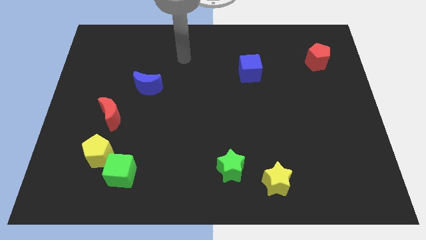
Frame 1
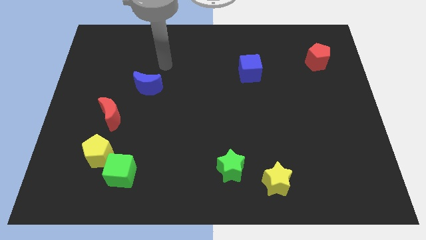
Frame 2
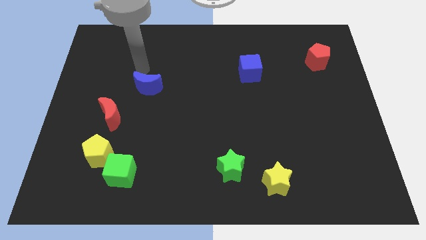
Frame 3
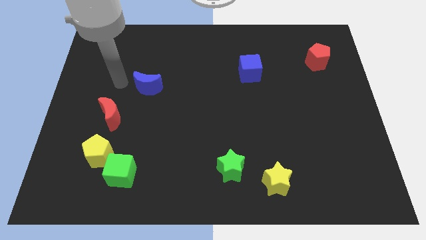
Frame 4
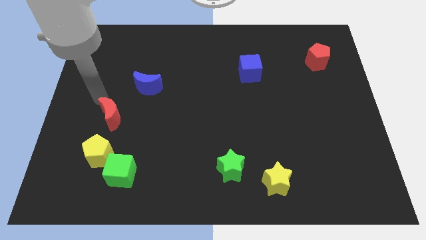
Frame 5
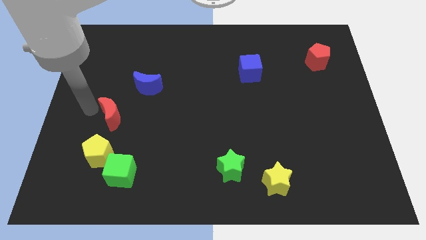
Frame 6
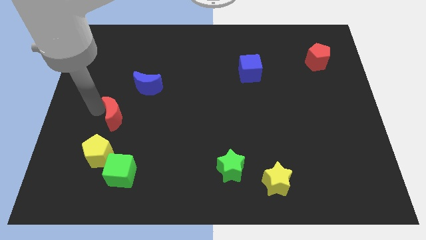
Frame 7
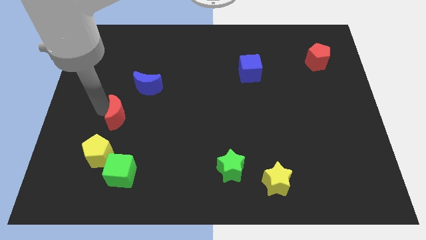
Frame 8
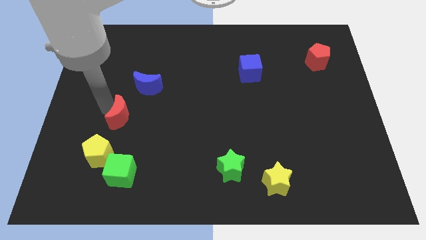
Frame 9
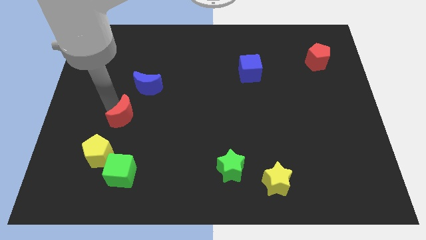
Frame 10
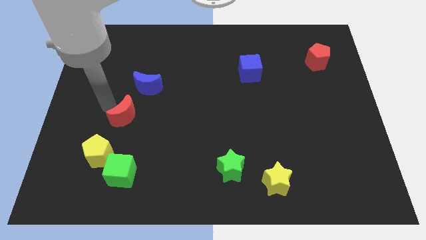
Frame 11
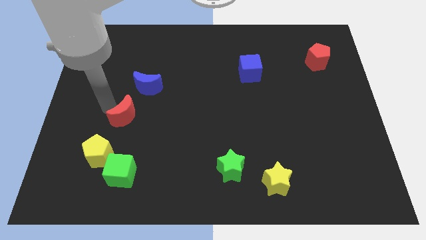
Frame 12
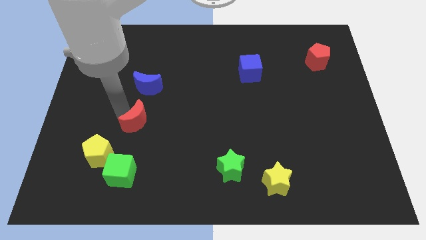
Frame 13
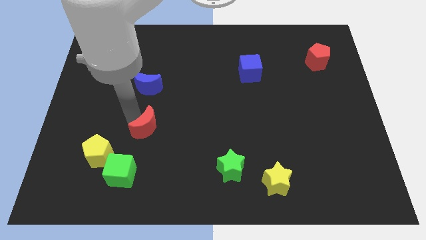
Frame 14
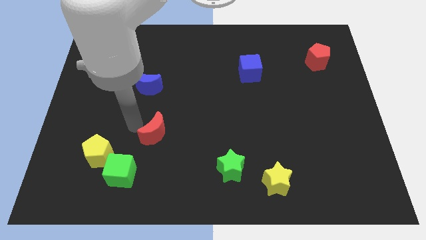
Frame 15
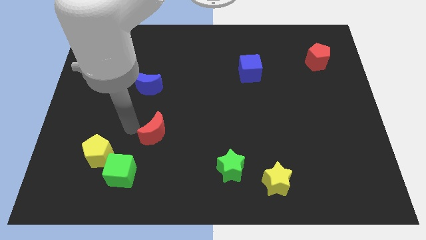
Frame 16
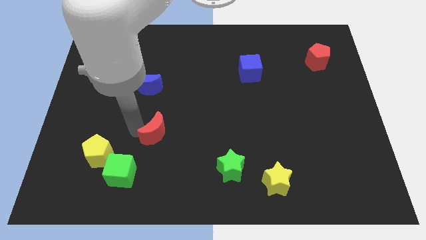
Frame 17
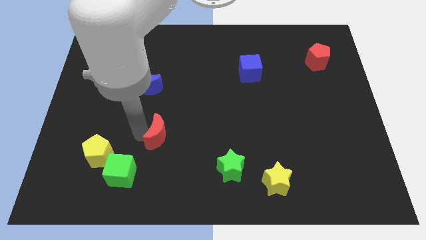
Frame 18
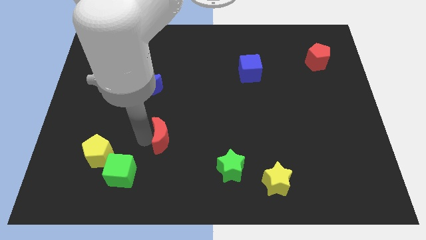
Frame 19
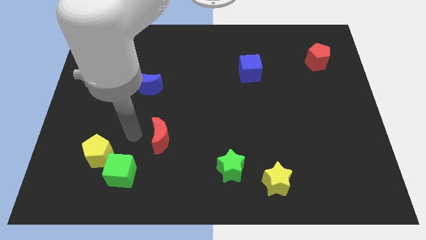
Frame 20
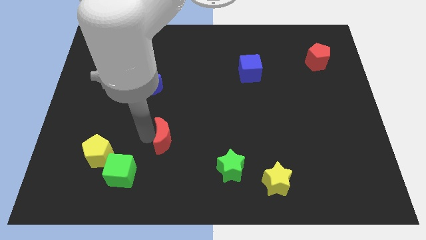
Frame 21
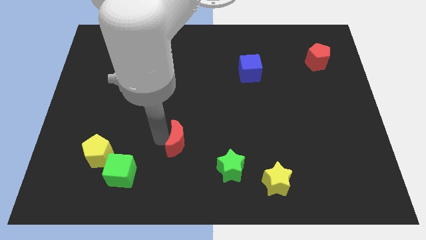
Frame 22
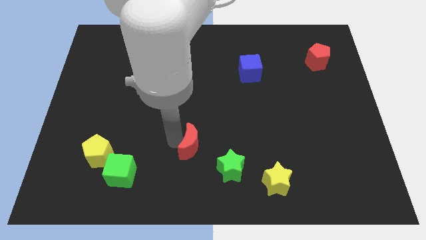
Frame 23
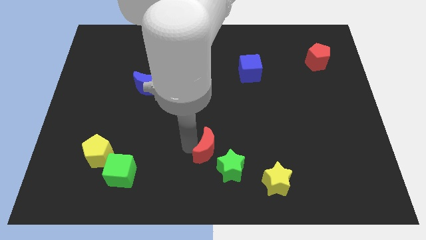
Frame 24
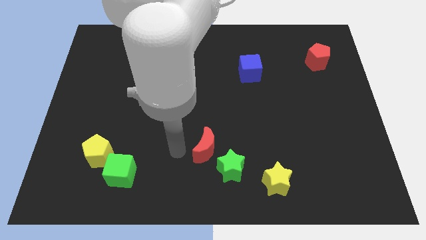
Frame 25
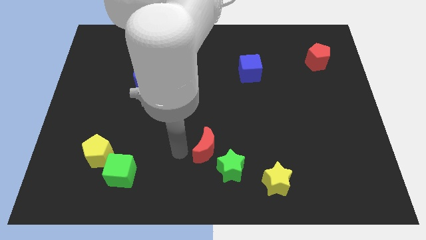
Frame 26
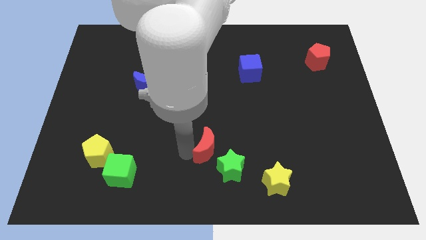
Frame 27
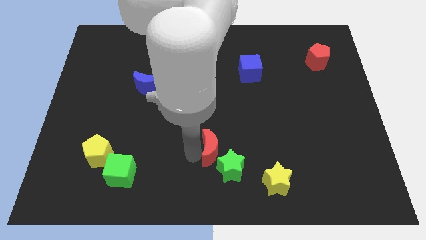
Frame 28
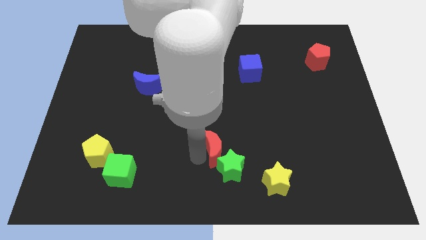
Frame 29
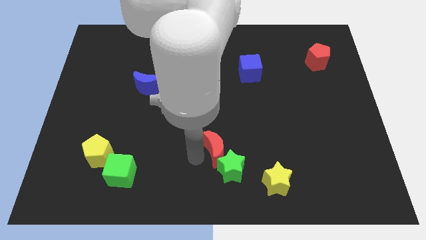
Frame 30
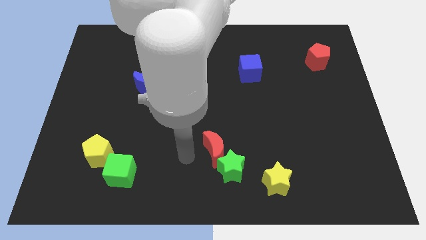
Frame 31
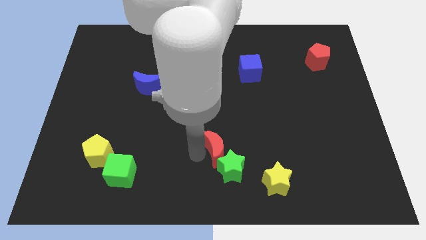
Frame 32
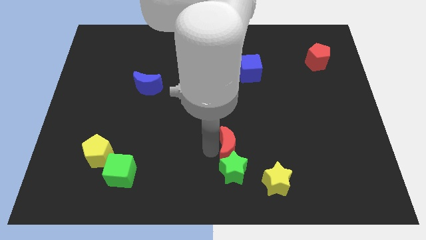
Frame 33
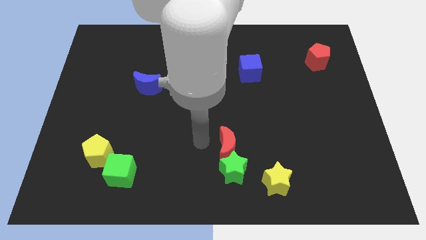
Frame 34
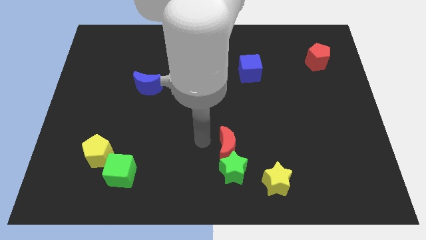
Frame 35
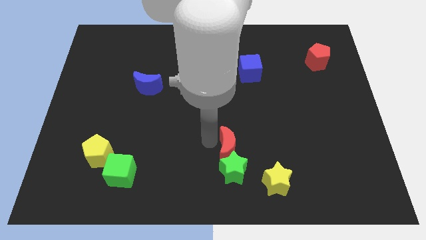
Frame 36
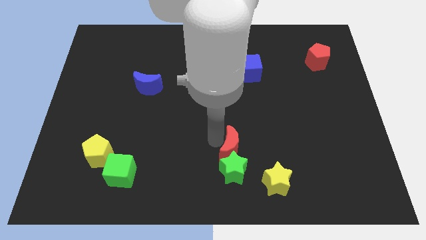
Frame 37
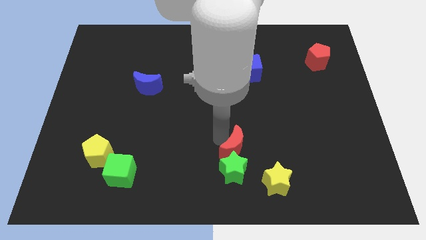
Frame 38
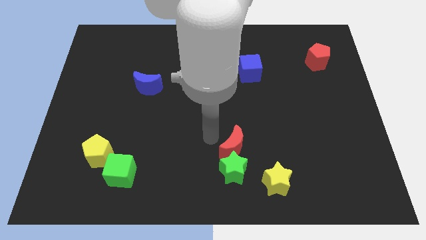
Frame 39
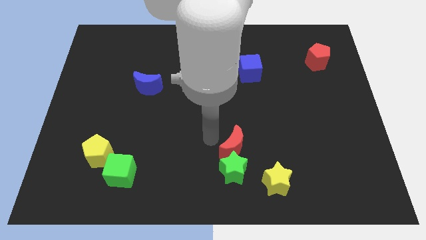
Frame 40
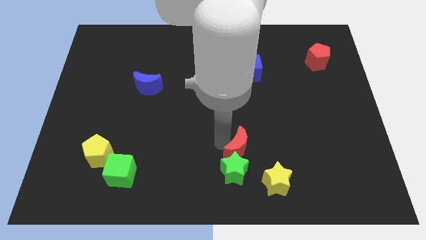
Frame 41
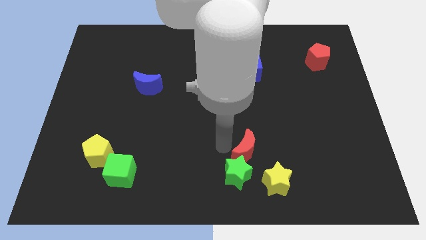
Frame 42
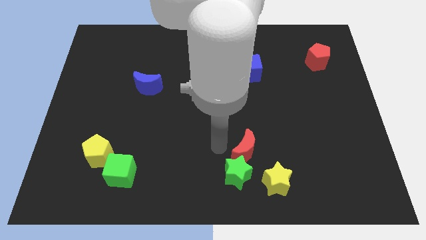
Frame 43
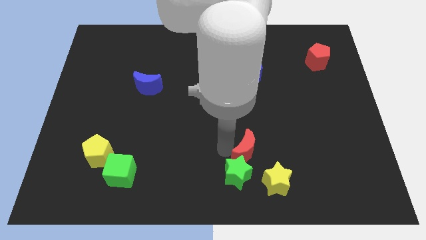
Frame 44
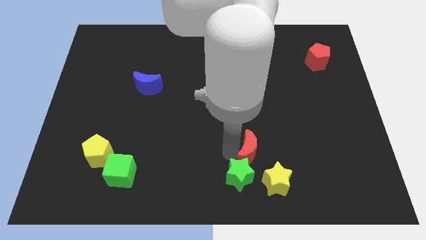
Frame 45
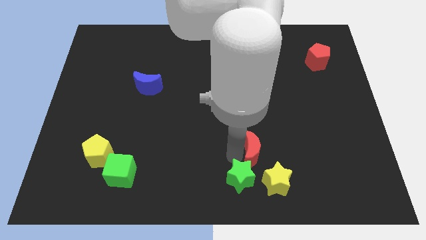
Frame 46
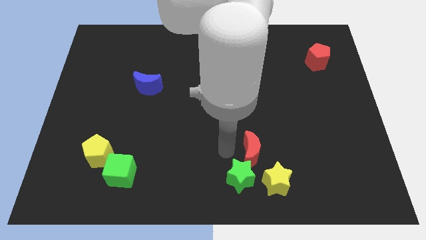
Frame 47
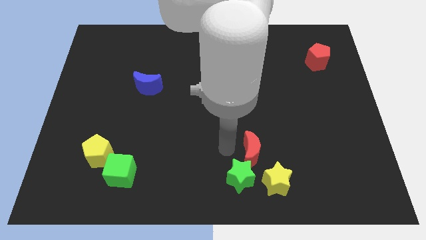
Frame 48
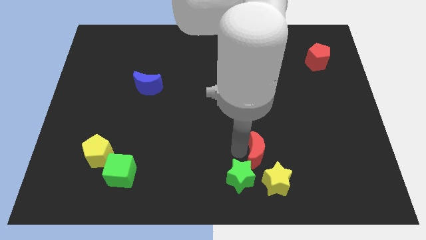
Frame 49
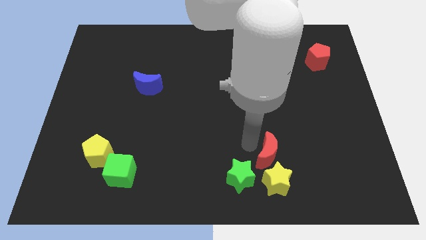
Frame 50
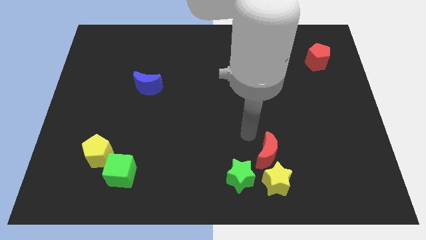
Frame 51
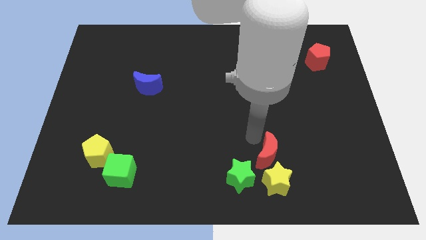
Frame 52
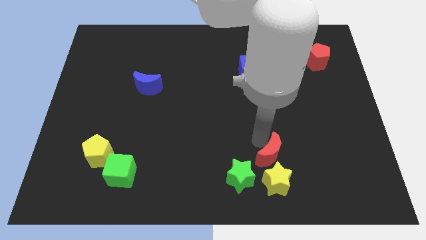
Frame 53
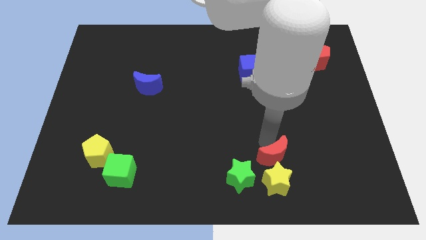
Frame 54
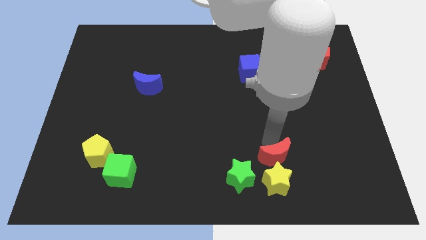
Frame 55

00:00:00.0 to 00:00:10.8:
put the red moon just right of the green star

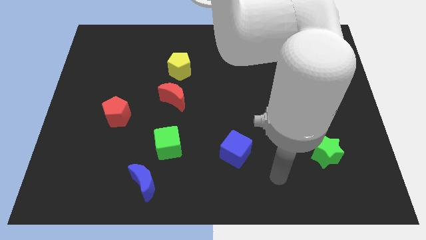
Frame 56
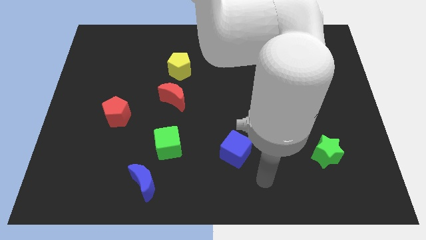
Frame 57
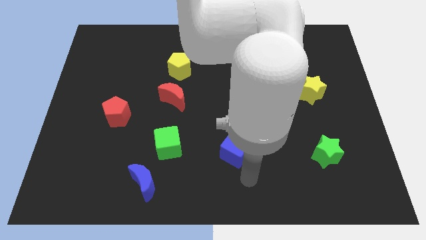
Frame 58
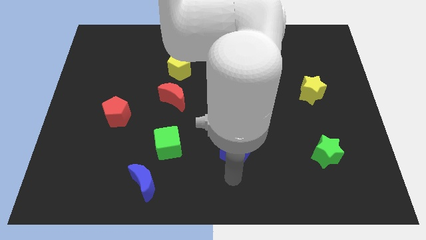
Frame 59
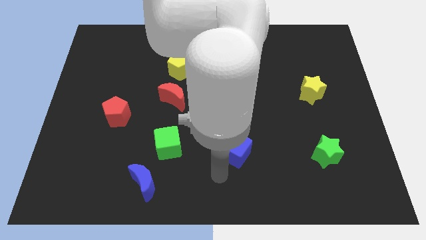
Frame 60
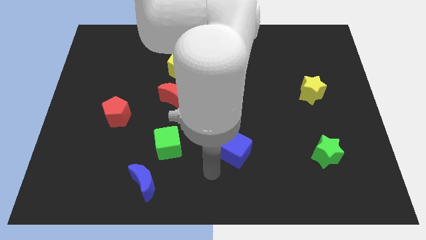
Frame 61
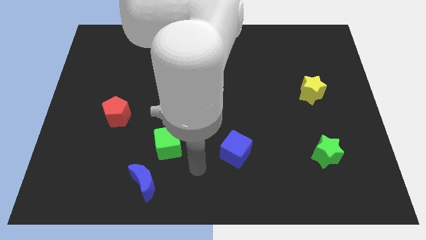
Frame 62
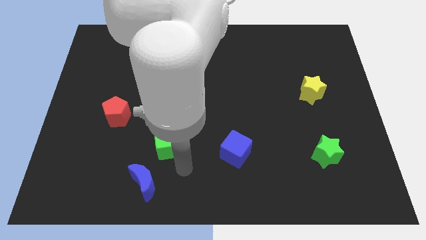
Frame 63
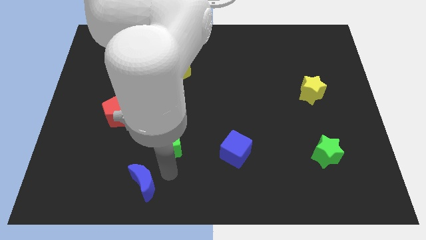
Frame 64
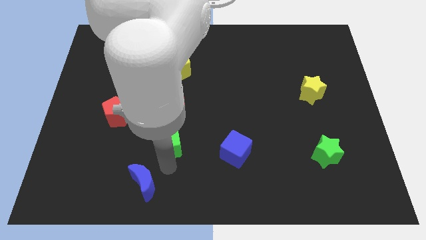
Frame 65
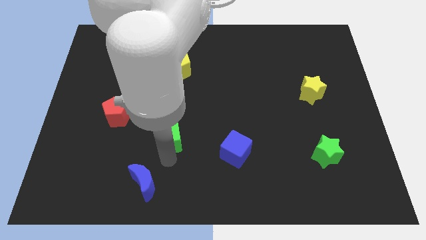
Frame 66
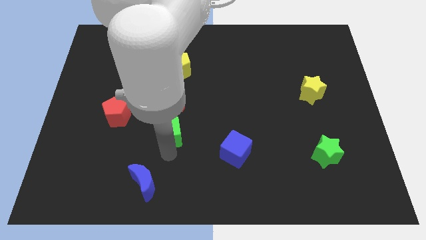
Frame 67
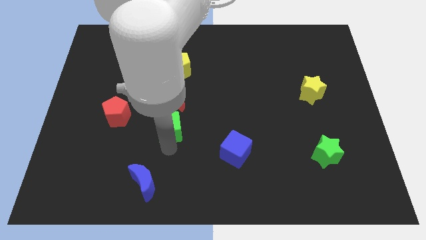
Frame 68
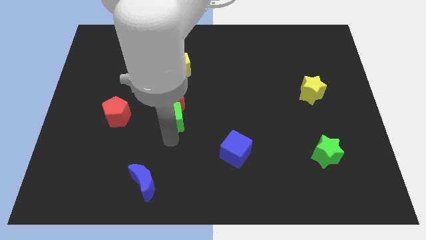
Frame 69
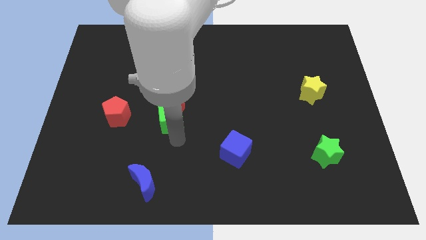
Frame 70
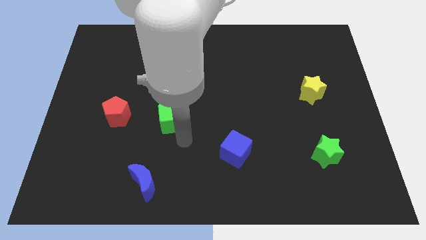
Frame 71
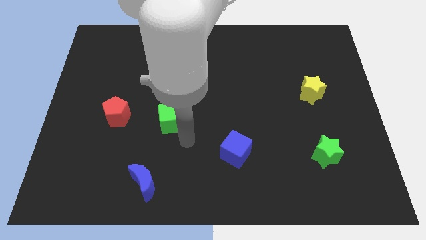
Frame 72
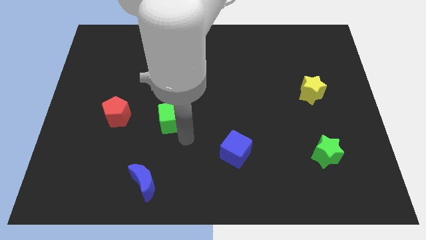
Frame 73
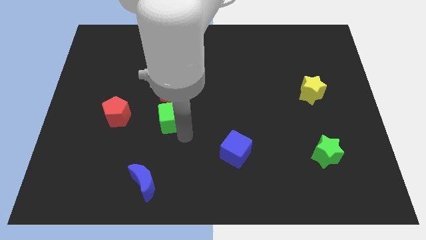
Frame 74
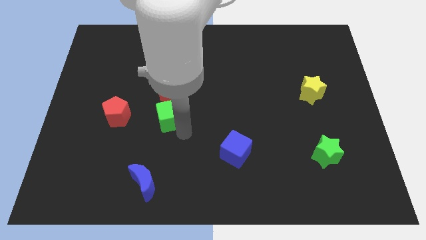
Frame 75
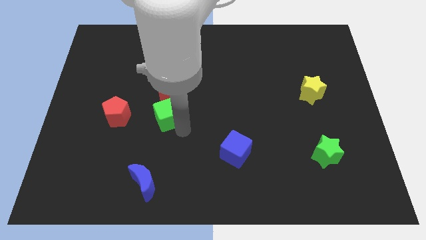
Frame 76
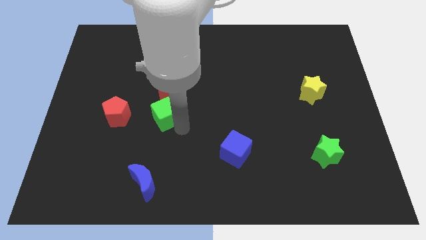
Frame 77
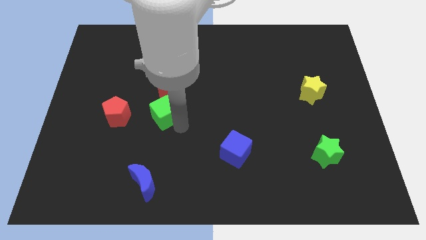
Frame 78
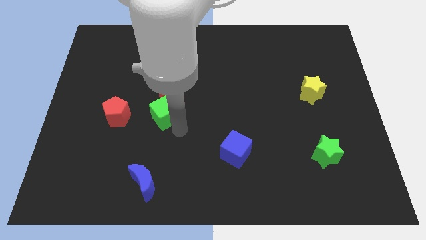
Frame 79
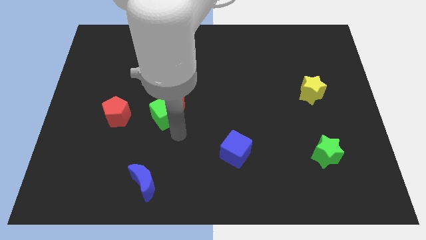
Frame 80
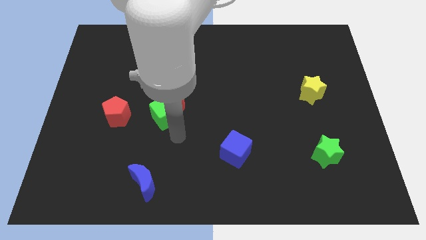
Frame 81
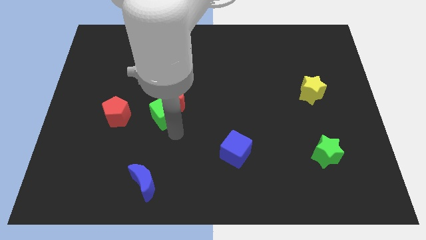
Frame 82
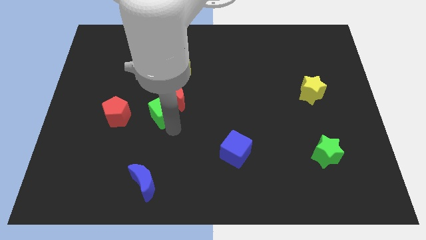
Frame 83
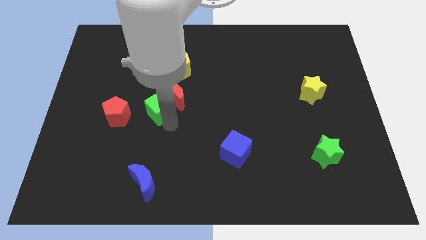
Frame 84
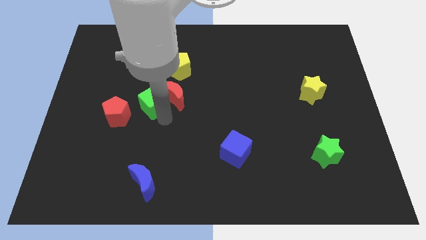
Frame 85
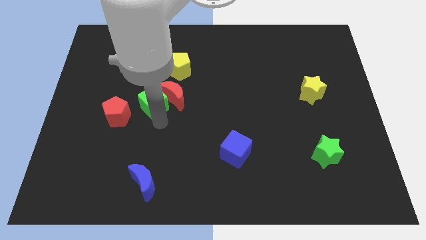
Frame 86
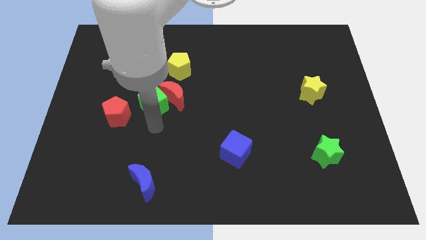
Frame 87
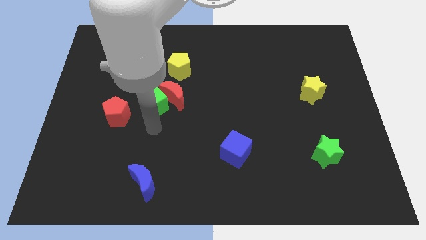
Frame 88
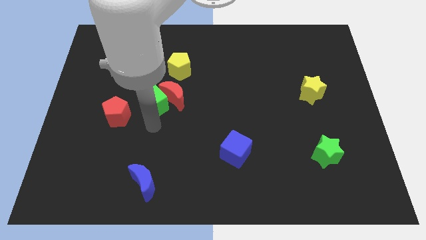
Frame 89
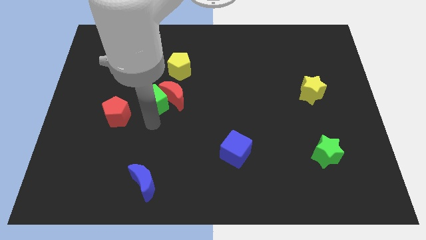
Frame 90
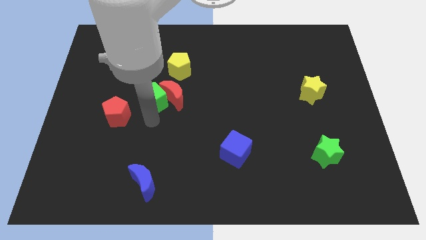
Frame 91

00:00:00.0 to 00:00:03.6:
slide the green cube diagonally up and to the left of the red moon
